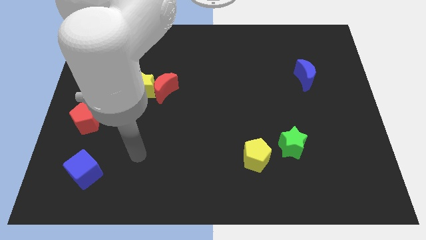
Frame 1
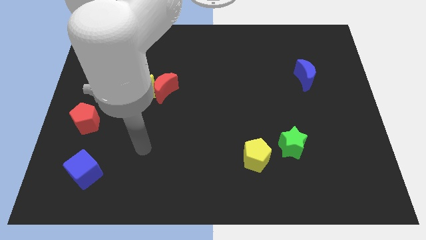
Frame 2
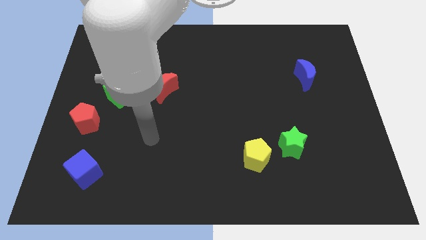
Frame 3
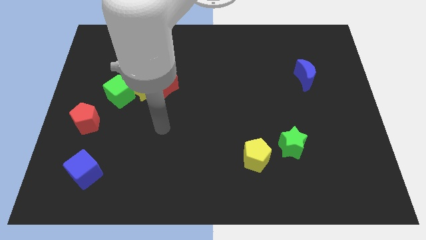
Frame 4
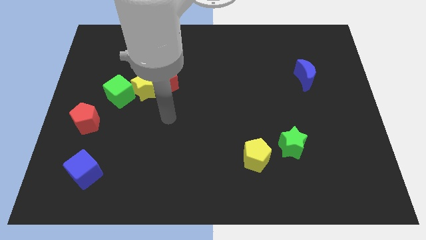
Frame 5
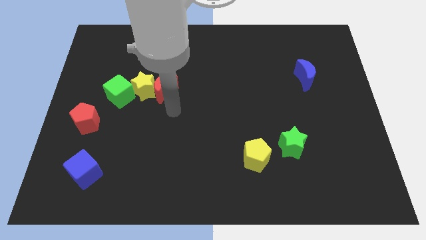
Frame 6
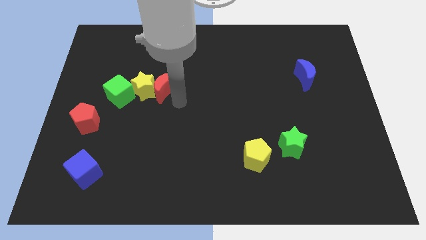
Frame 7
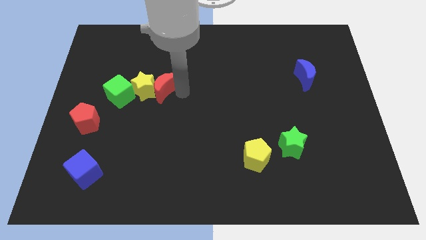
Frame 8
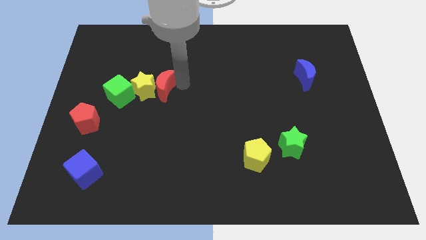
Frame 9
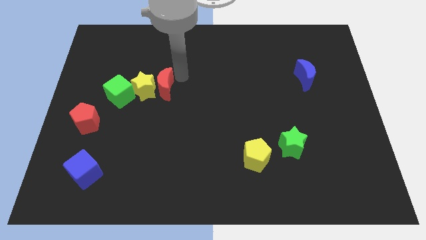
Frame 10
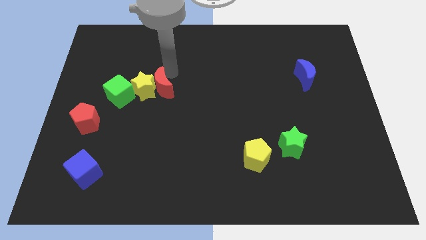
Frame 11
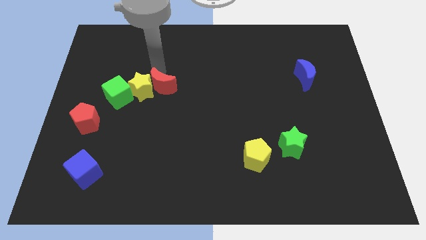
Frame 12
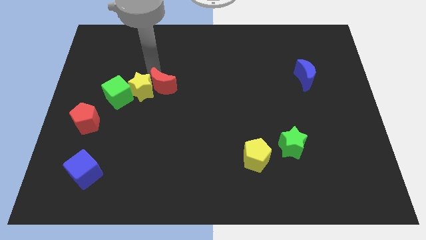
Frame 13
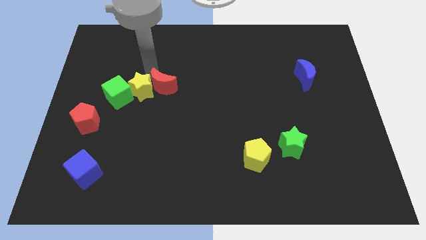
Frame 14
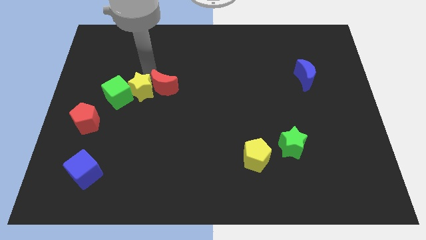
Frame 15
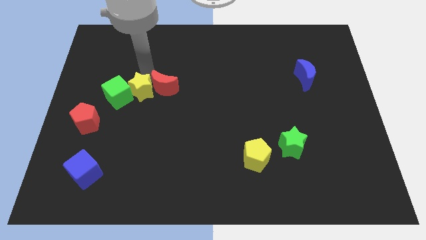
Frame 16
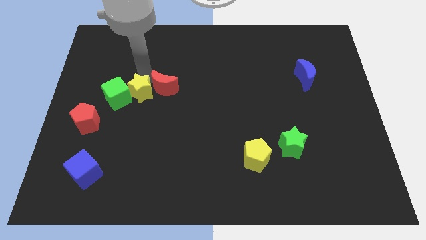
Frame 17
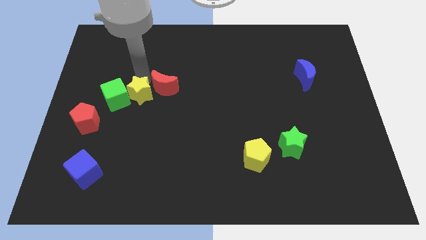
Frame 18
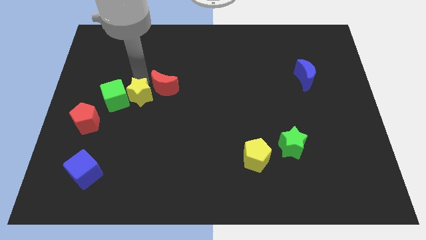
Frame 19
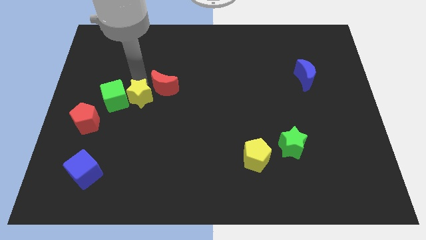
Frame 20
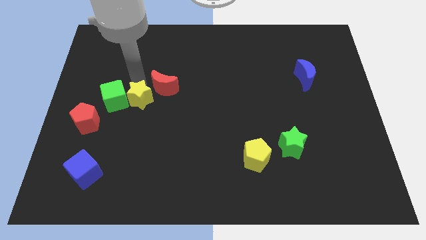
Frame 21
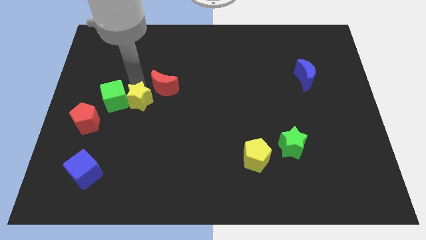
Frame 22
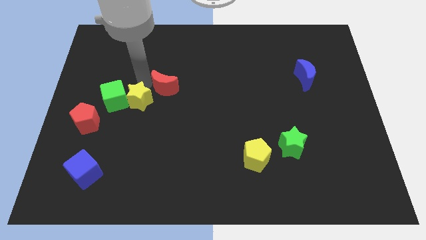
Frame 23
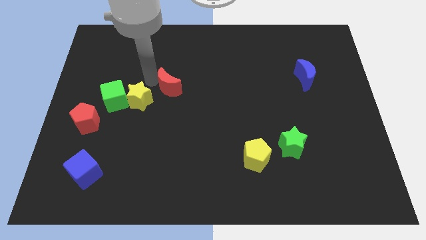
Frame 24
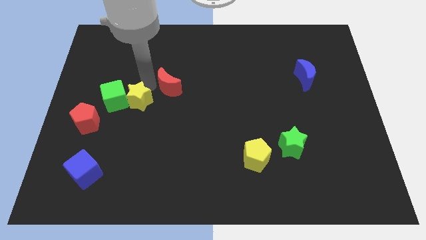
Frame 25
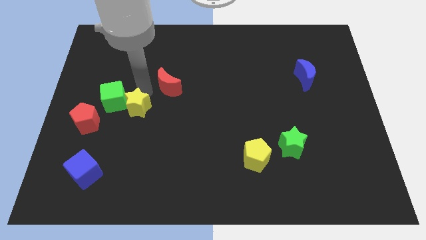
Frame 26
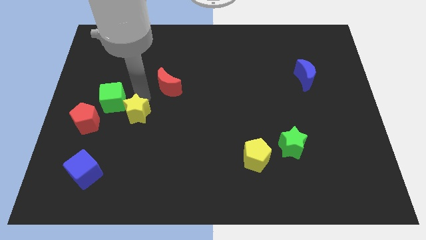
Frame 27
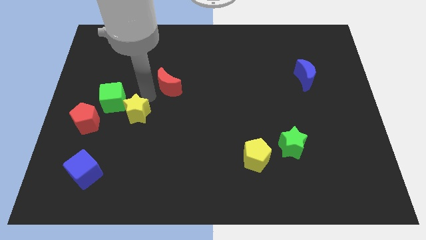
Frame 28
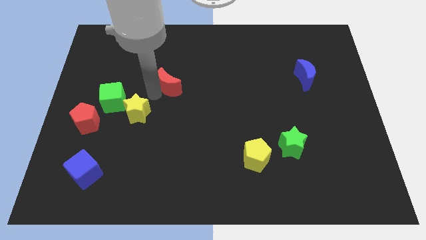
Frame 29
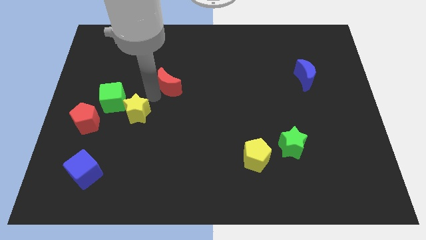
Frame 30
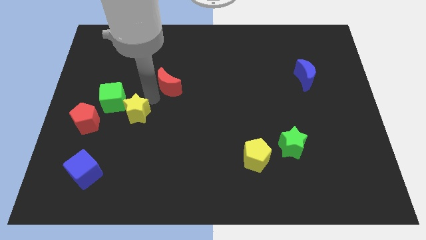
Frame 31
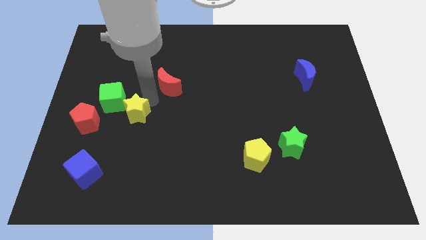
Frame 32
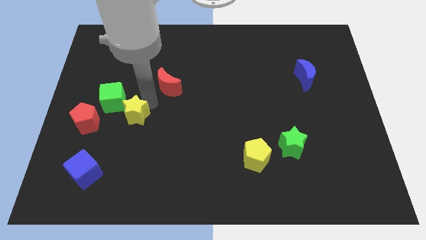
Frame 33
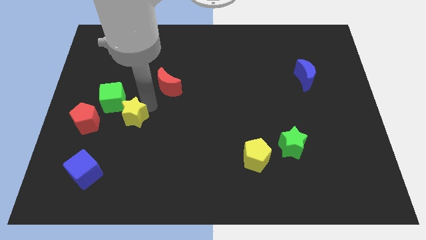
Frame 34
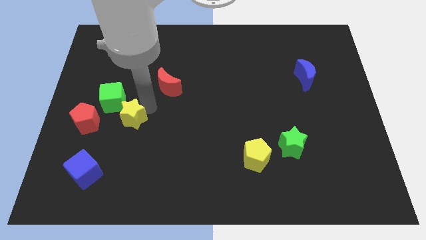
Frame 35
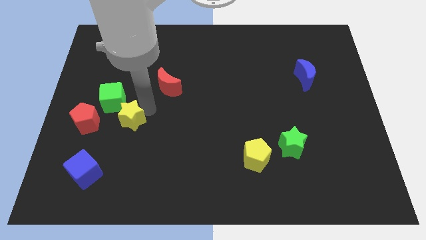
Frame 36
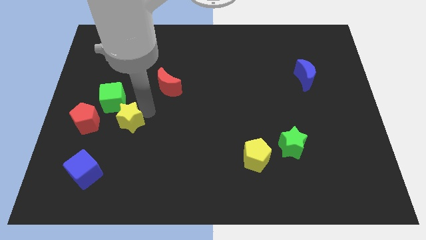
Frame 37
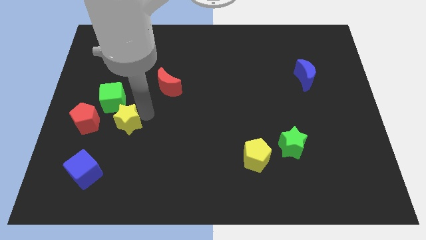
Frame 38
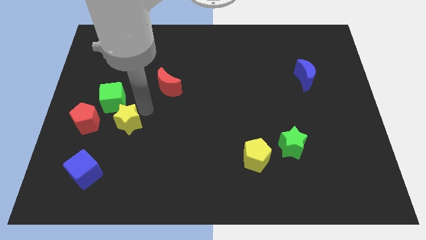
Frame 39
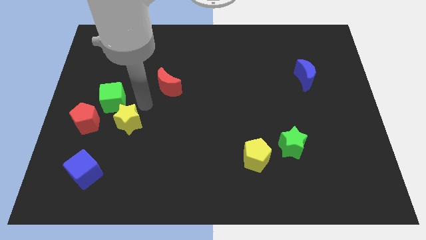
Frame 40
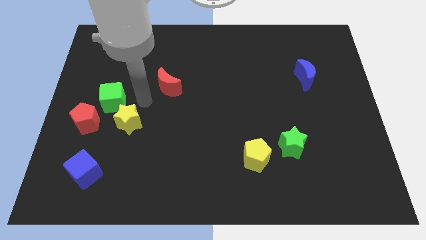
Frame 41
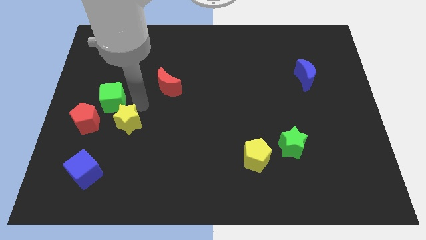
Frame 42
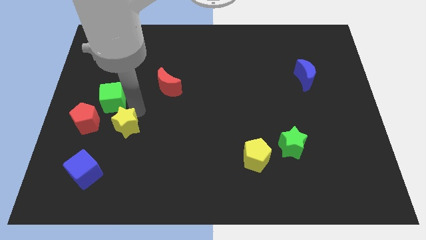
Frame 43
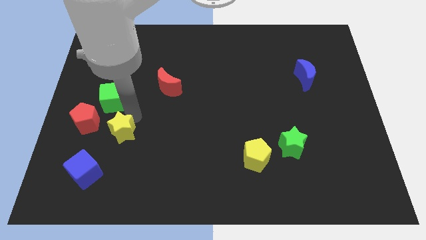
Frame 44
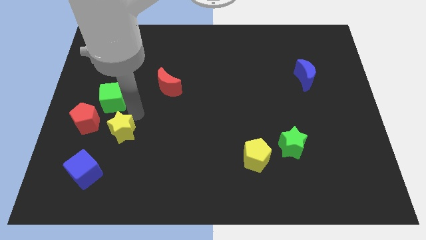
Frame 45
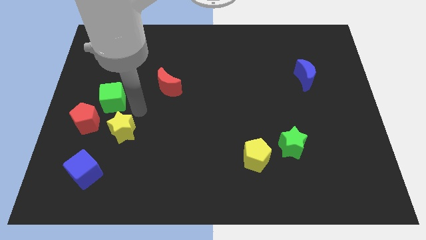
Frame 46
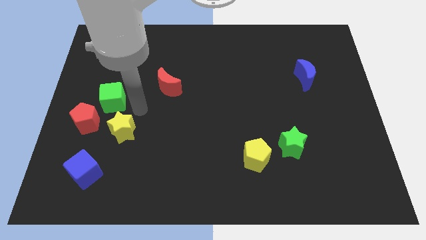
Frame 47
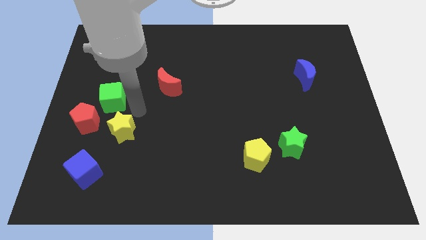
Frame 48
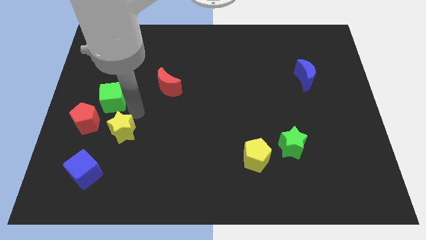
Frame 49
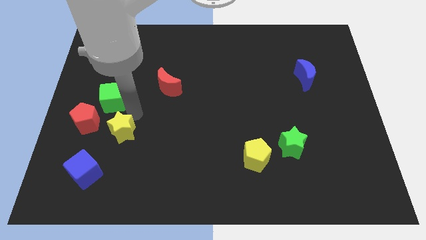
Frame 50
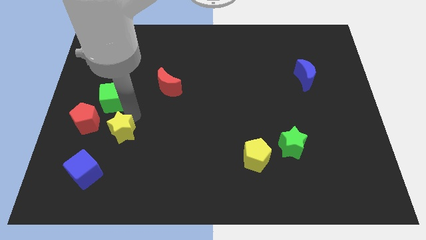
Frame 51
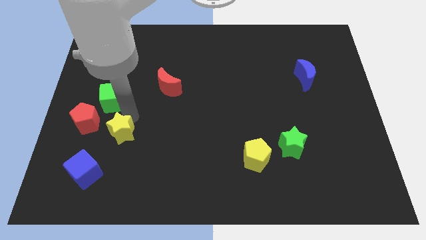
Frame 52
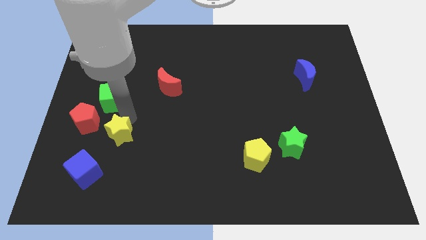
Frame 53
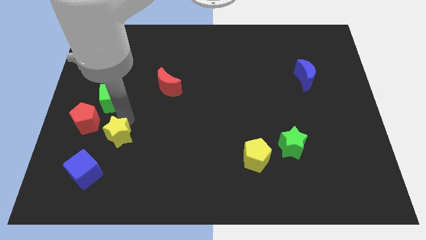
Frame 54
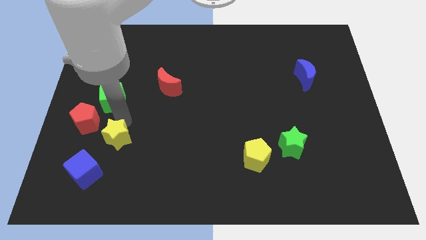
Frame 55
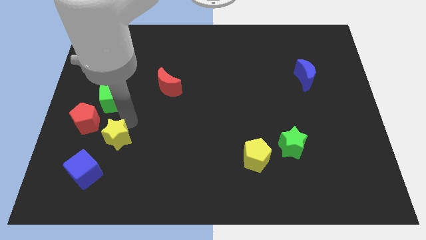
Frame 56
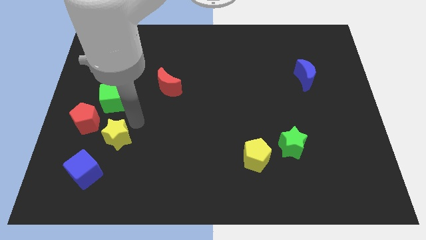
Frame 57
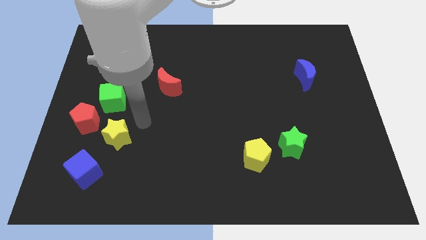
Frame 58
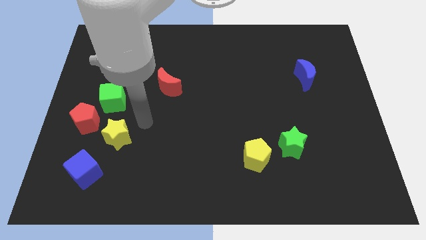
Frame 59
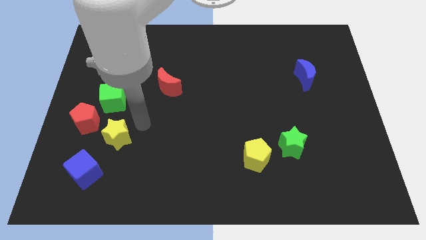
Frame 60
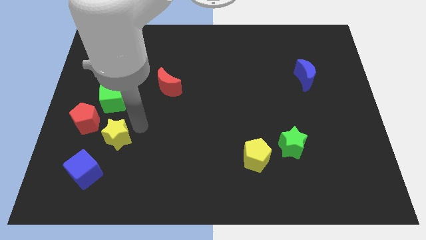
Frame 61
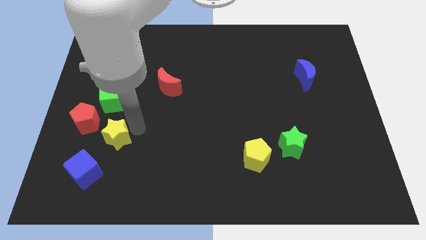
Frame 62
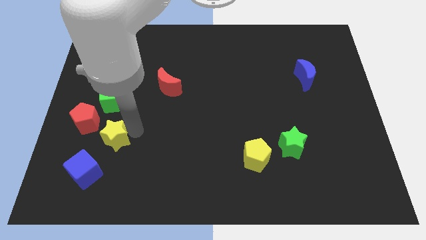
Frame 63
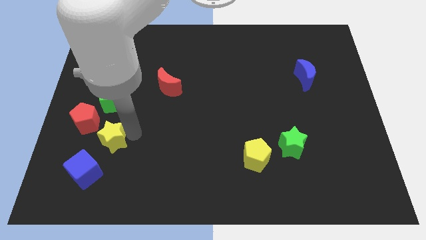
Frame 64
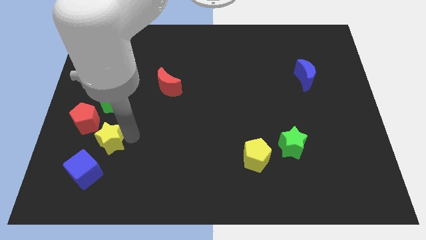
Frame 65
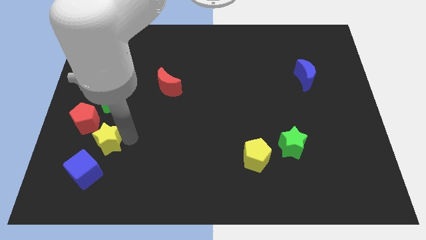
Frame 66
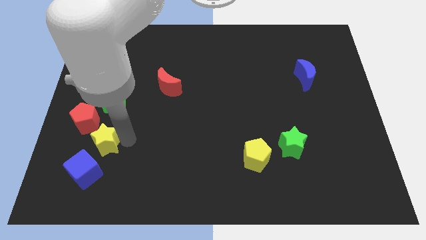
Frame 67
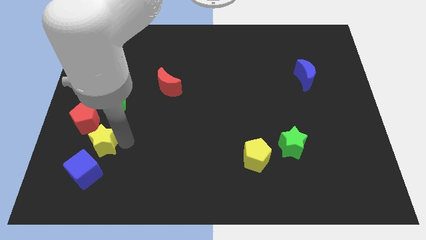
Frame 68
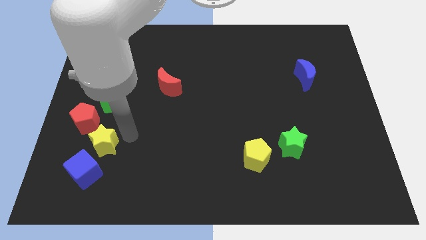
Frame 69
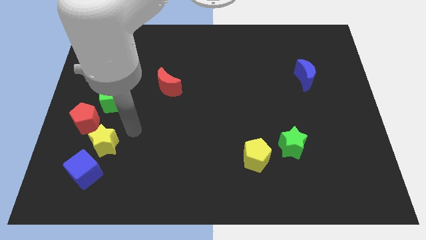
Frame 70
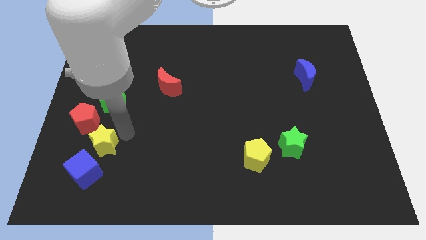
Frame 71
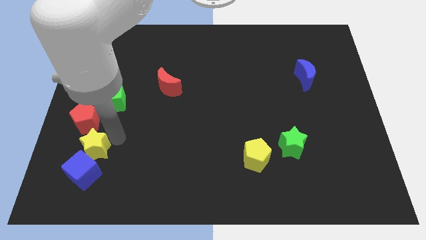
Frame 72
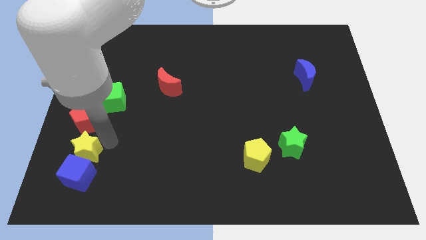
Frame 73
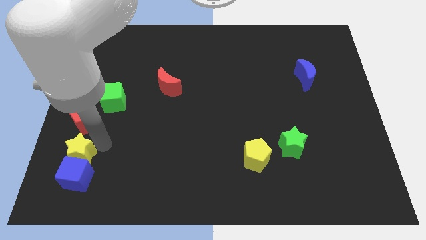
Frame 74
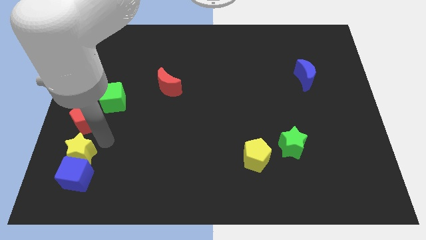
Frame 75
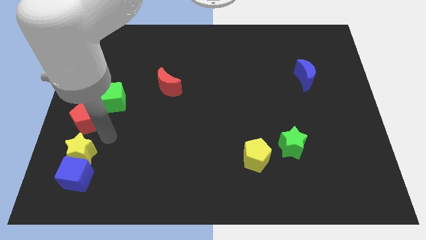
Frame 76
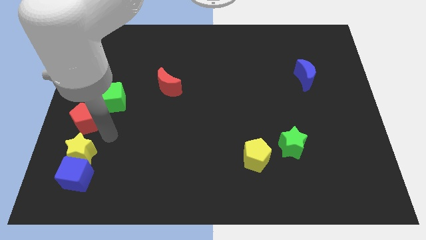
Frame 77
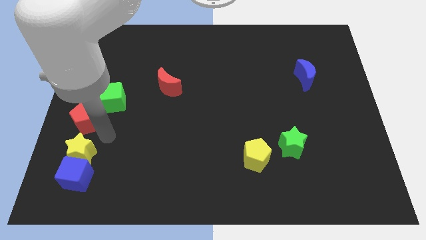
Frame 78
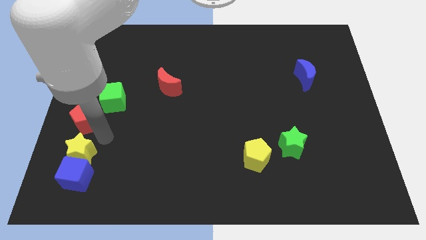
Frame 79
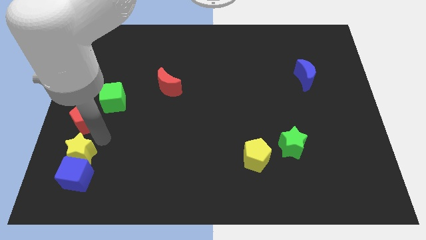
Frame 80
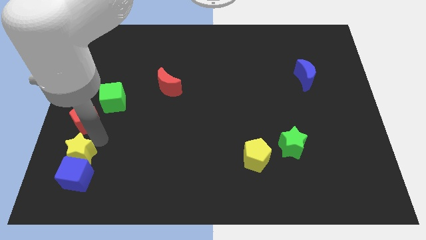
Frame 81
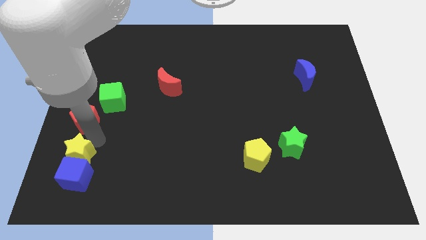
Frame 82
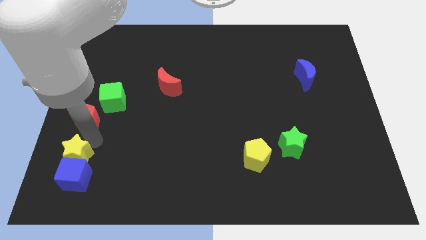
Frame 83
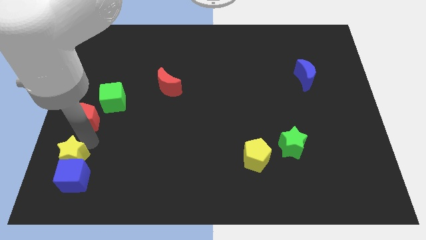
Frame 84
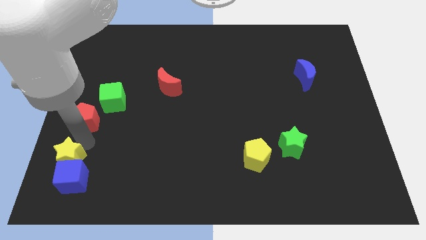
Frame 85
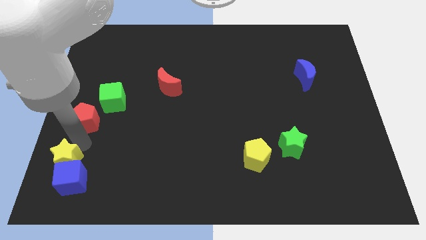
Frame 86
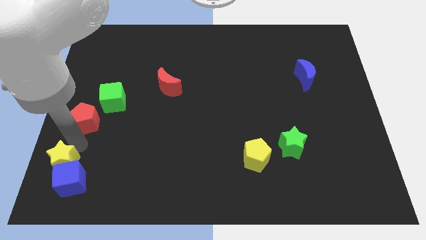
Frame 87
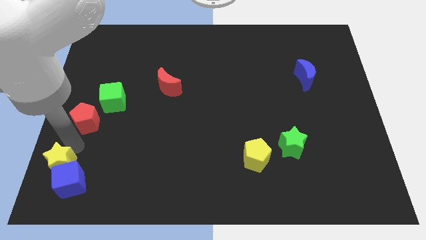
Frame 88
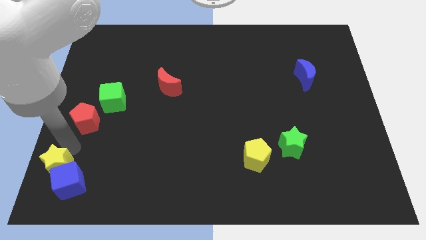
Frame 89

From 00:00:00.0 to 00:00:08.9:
slide the yellow star to the bottom left
